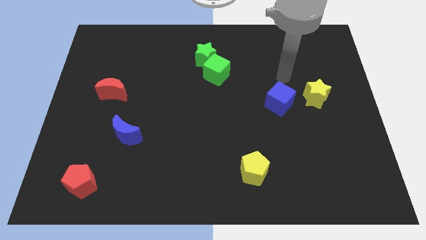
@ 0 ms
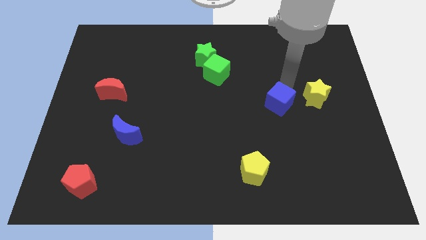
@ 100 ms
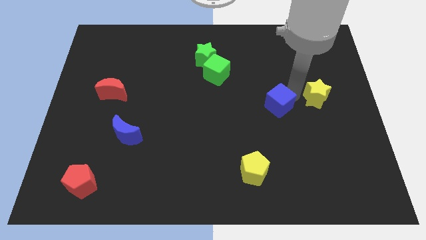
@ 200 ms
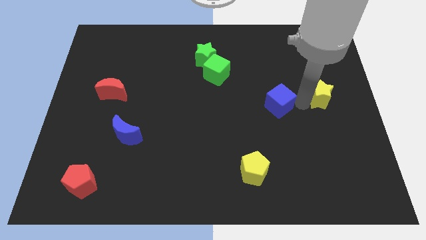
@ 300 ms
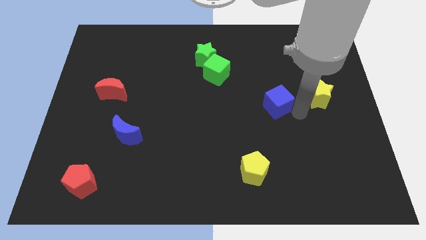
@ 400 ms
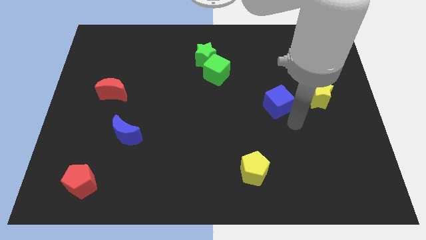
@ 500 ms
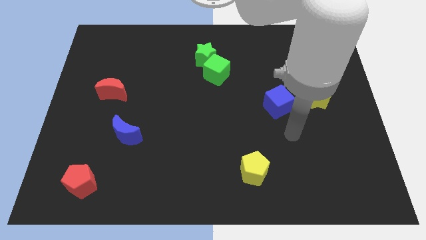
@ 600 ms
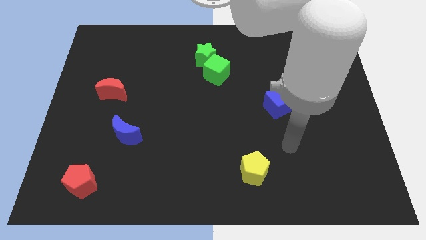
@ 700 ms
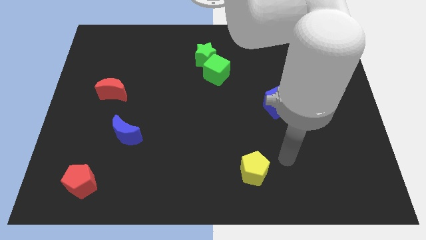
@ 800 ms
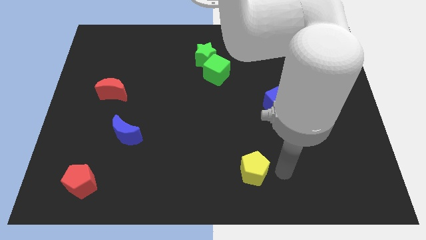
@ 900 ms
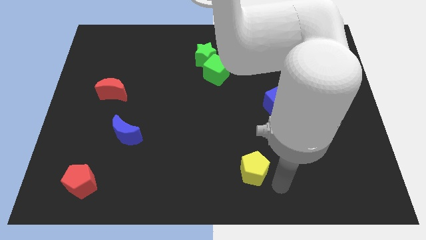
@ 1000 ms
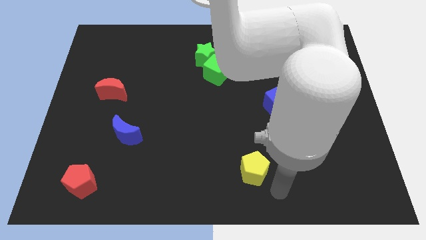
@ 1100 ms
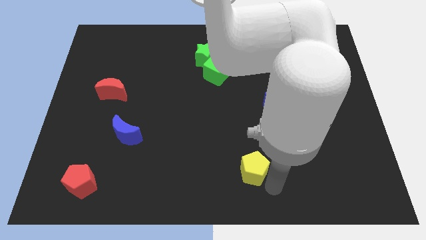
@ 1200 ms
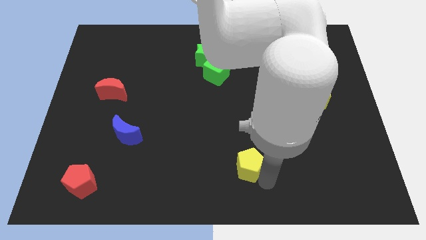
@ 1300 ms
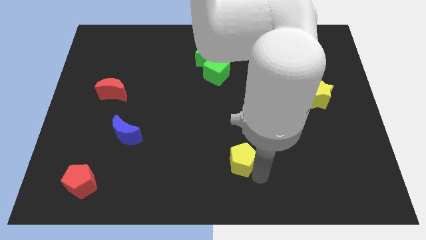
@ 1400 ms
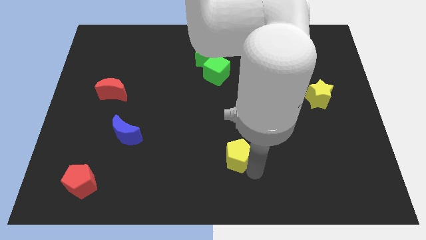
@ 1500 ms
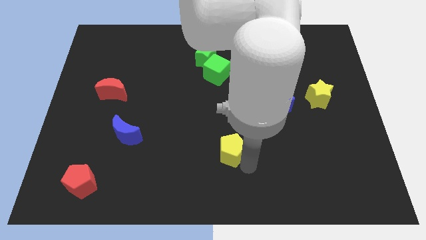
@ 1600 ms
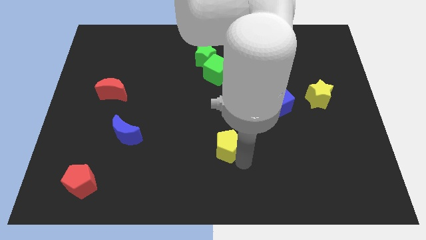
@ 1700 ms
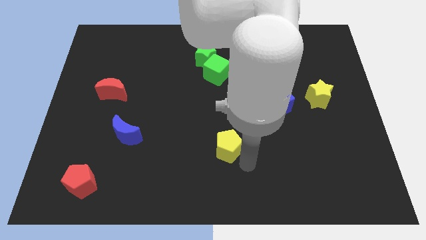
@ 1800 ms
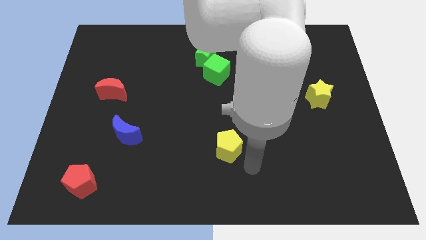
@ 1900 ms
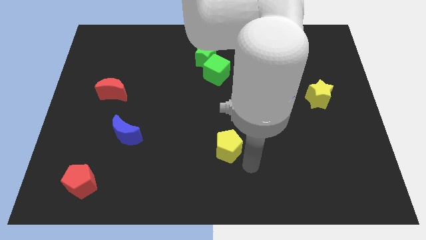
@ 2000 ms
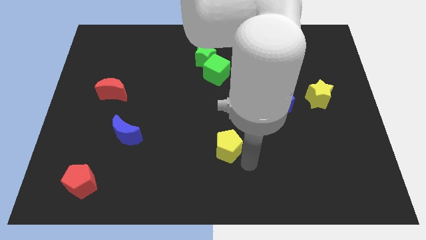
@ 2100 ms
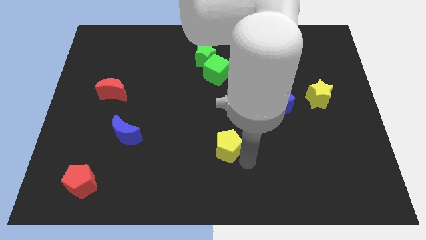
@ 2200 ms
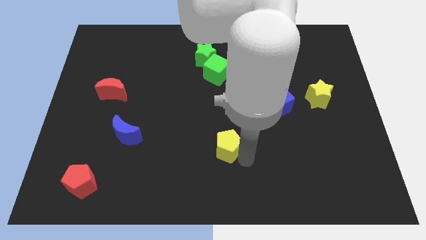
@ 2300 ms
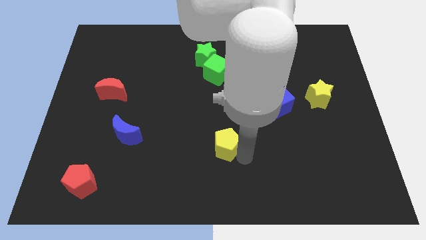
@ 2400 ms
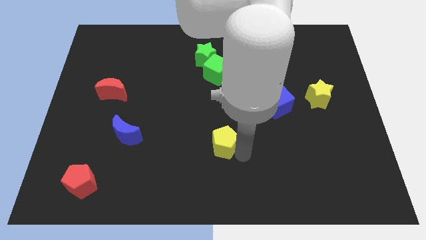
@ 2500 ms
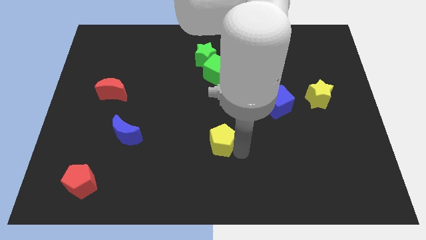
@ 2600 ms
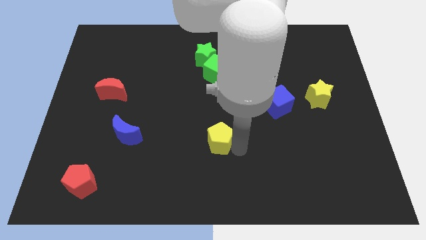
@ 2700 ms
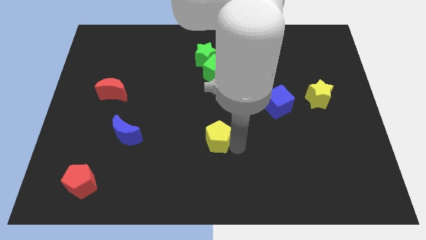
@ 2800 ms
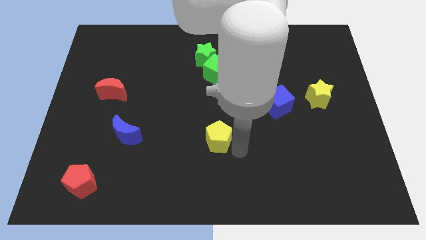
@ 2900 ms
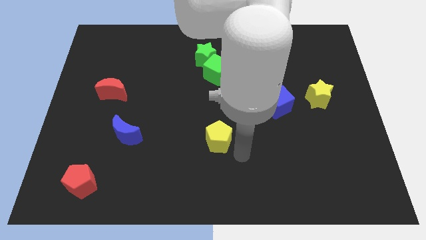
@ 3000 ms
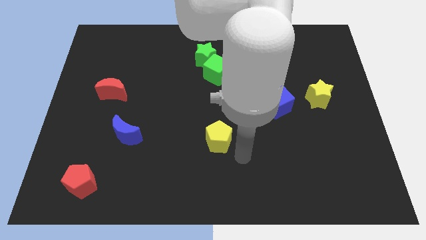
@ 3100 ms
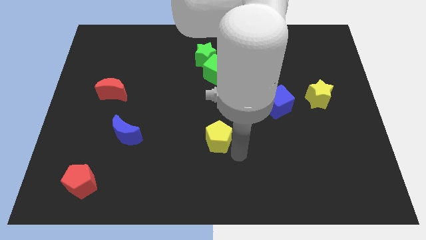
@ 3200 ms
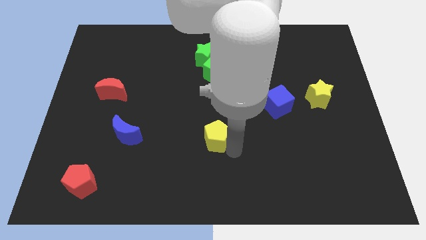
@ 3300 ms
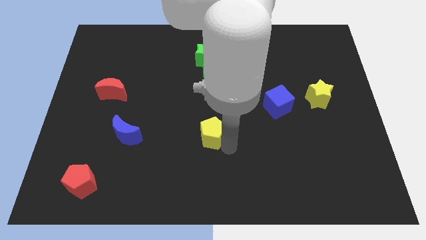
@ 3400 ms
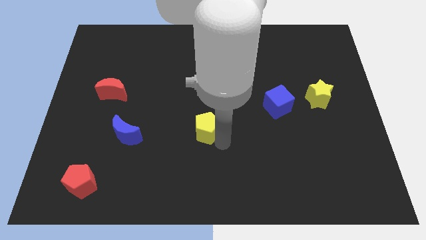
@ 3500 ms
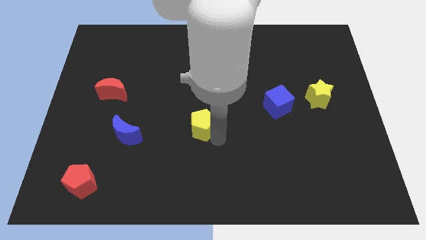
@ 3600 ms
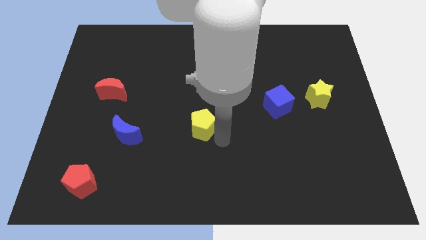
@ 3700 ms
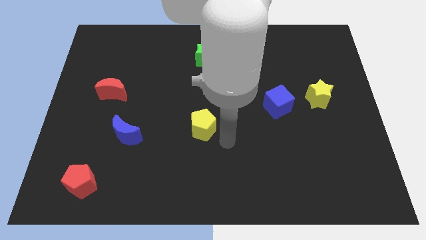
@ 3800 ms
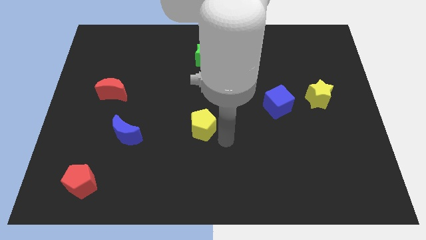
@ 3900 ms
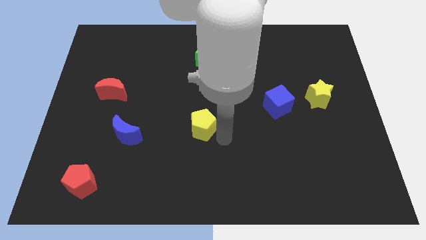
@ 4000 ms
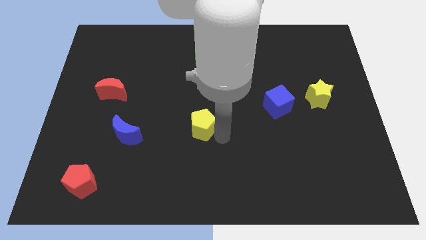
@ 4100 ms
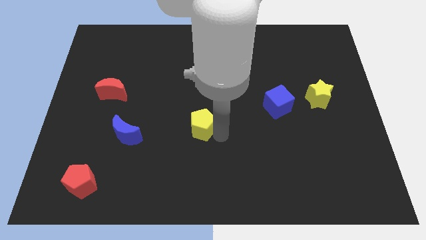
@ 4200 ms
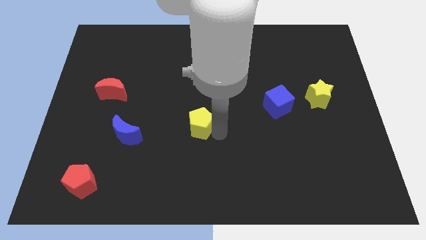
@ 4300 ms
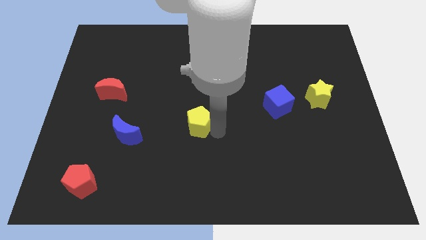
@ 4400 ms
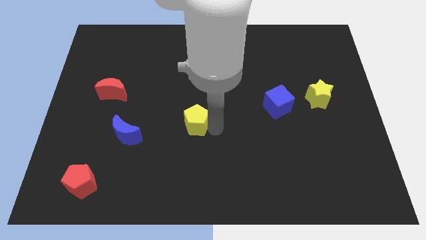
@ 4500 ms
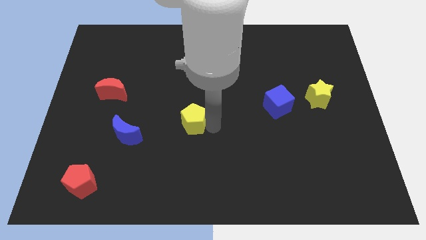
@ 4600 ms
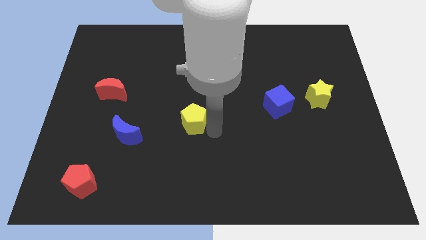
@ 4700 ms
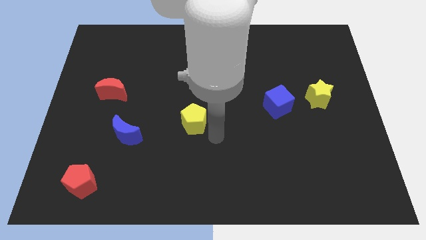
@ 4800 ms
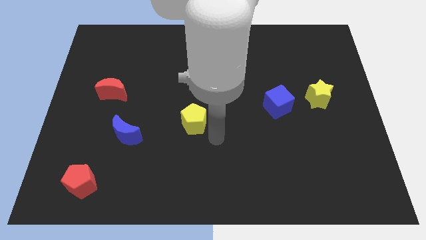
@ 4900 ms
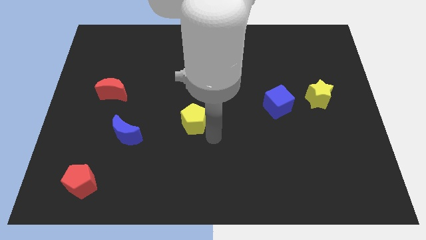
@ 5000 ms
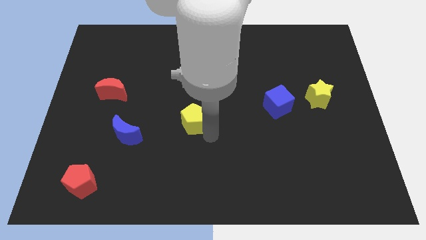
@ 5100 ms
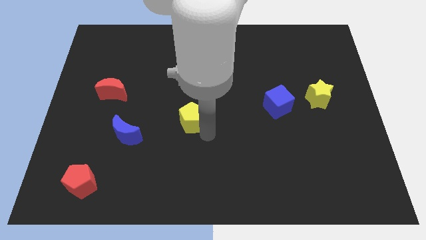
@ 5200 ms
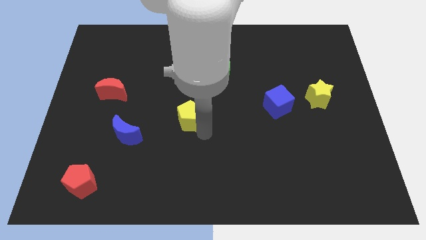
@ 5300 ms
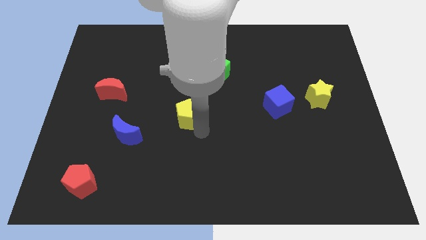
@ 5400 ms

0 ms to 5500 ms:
slide the yellow pentagon up and then to the left

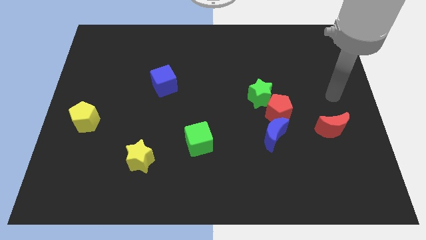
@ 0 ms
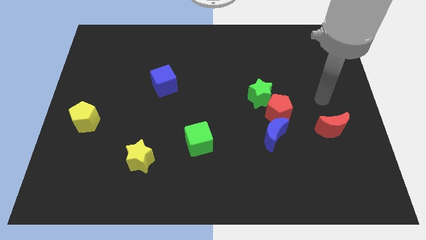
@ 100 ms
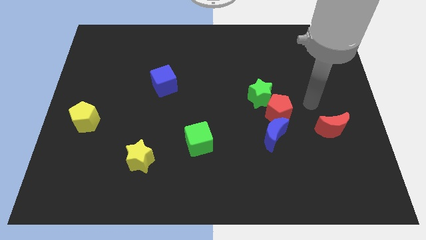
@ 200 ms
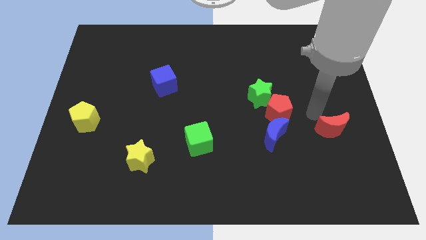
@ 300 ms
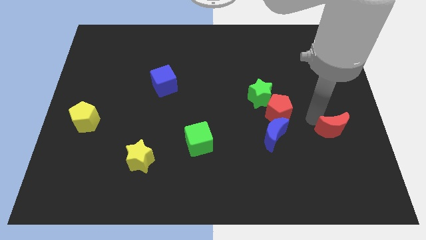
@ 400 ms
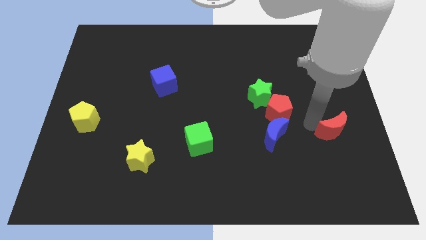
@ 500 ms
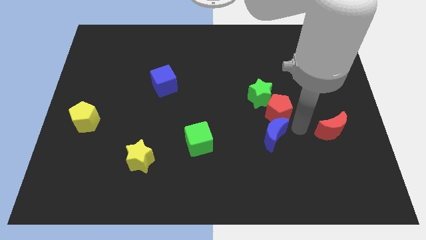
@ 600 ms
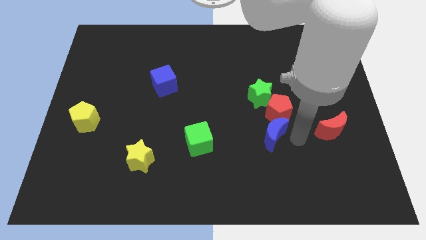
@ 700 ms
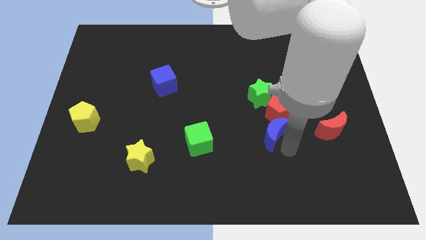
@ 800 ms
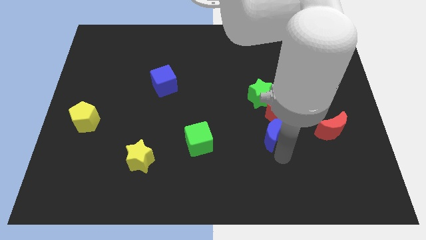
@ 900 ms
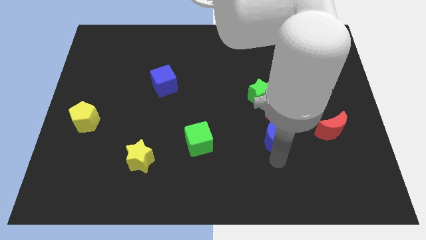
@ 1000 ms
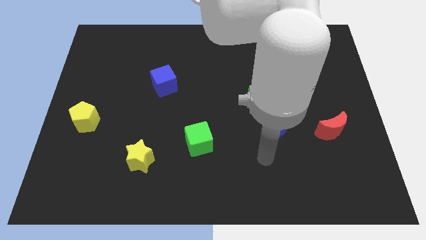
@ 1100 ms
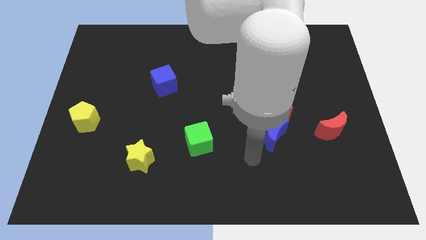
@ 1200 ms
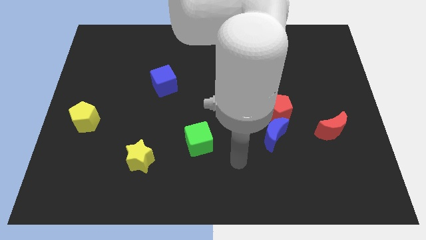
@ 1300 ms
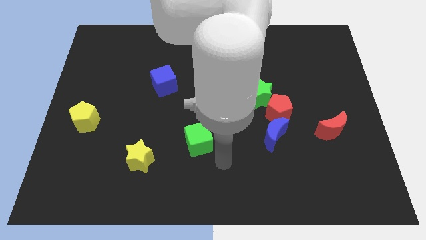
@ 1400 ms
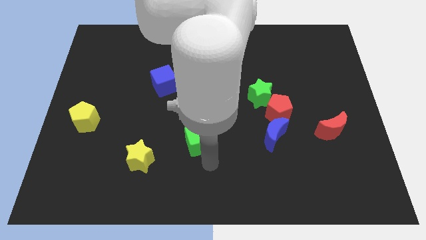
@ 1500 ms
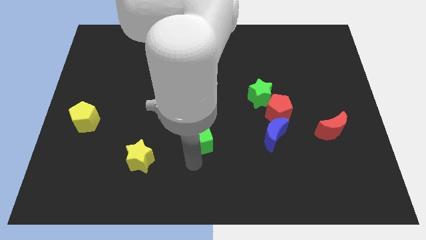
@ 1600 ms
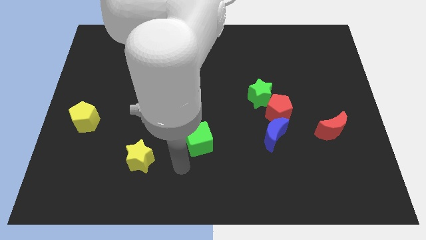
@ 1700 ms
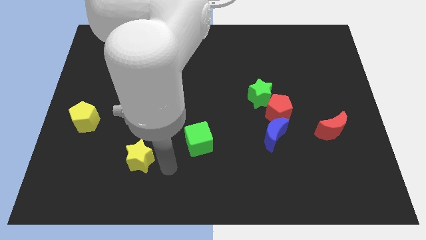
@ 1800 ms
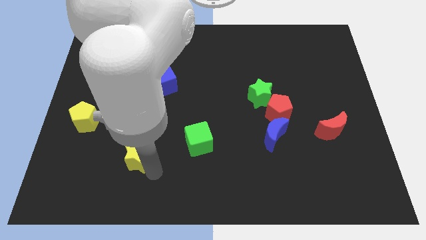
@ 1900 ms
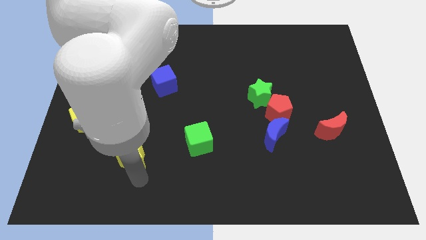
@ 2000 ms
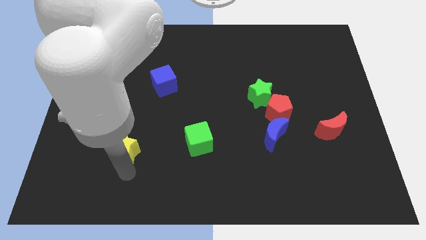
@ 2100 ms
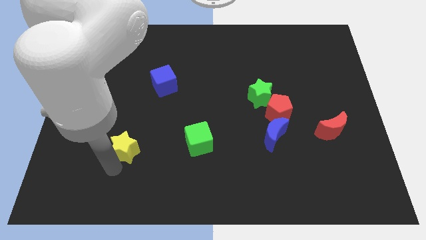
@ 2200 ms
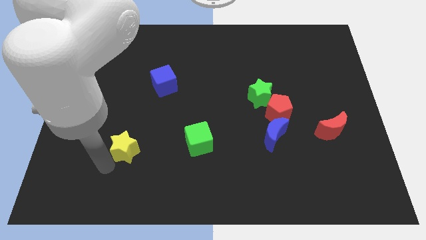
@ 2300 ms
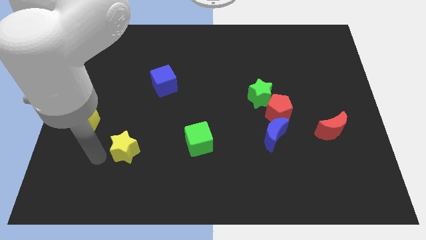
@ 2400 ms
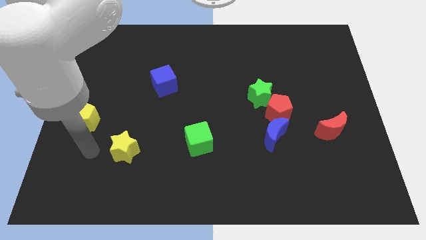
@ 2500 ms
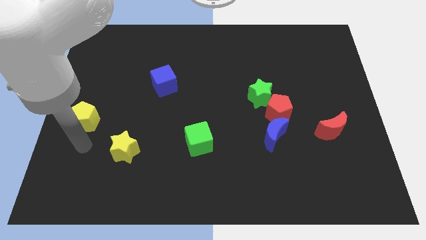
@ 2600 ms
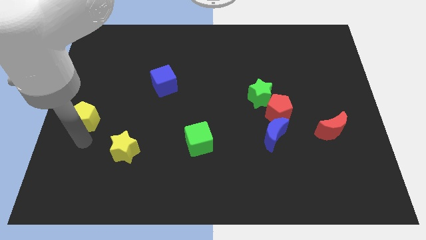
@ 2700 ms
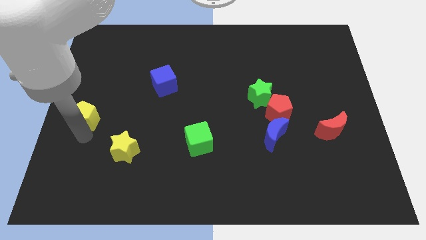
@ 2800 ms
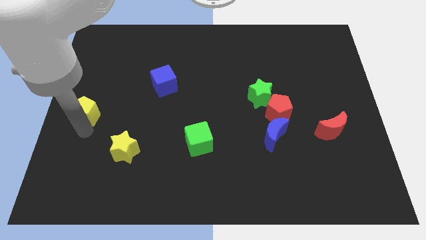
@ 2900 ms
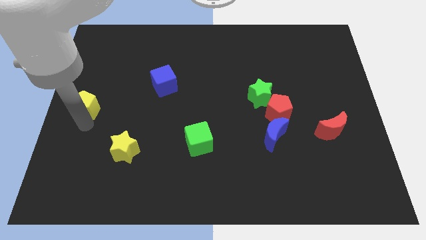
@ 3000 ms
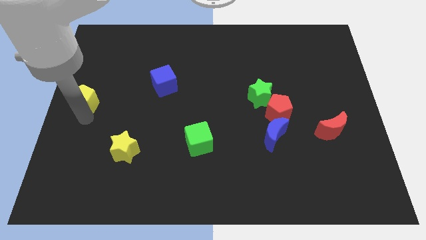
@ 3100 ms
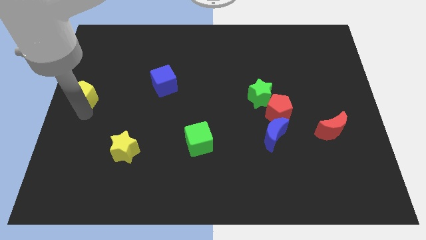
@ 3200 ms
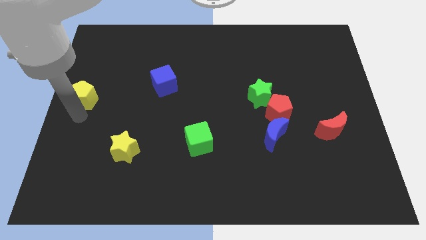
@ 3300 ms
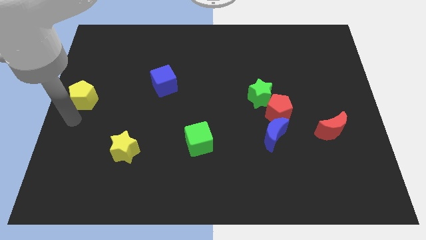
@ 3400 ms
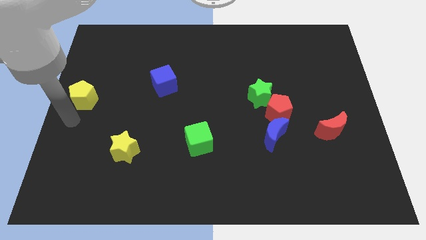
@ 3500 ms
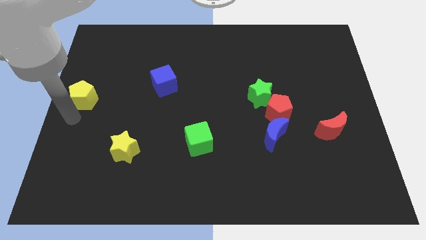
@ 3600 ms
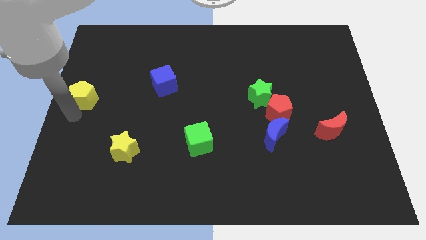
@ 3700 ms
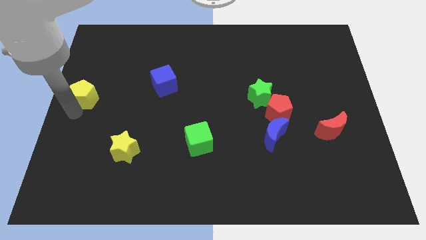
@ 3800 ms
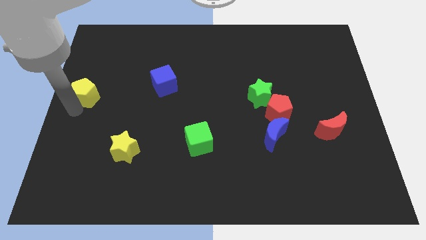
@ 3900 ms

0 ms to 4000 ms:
slightly push the yellow pentagon upwards
